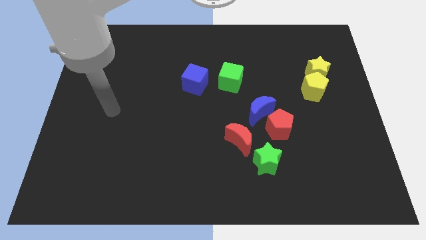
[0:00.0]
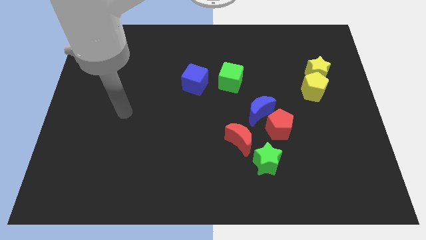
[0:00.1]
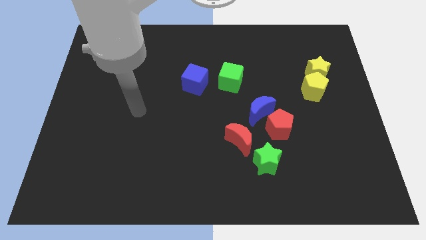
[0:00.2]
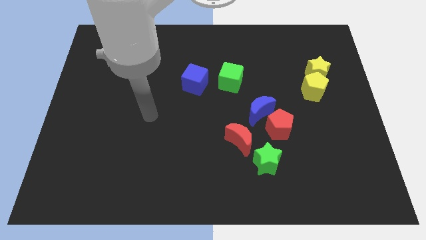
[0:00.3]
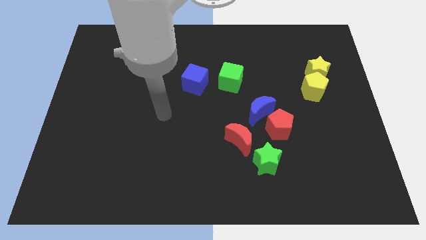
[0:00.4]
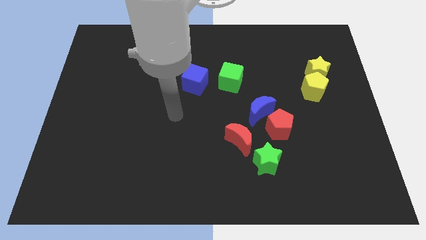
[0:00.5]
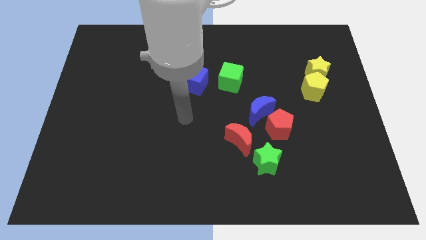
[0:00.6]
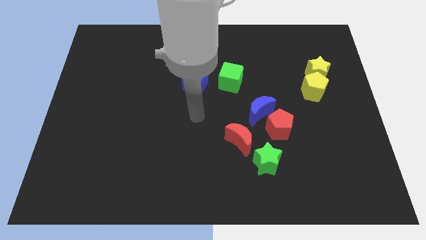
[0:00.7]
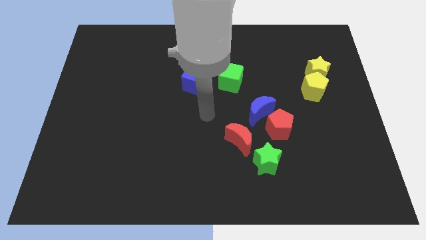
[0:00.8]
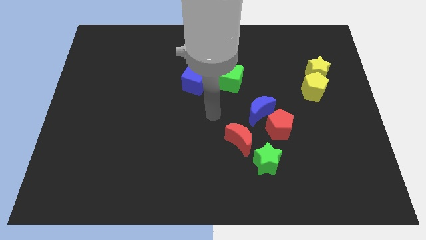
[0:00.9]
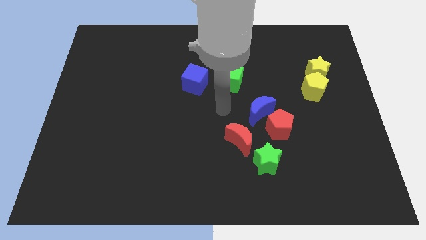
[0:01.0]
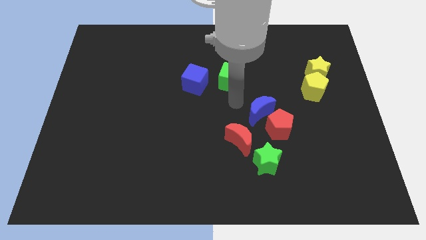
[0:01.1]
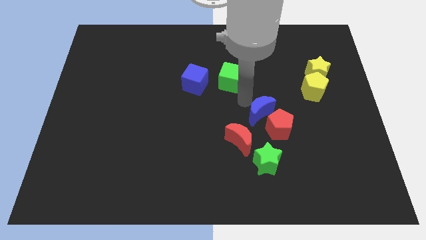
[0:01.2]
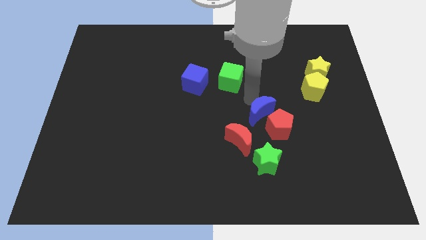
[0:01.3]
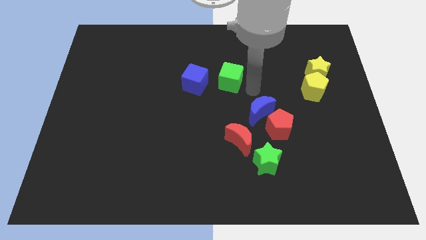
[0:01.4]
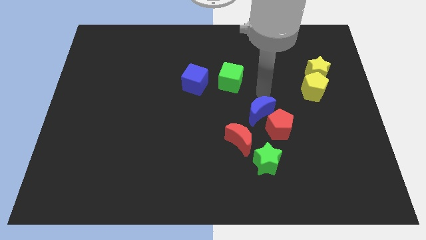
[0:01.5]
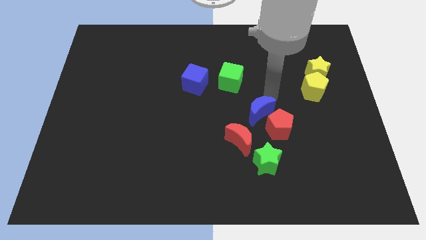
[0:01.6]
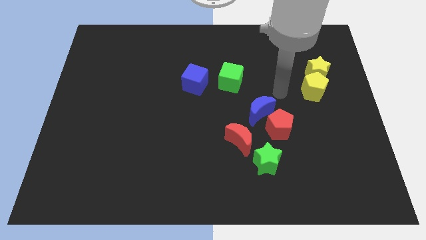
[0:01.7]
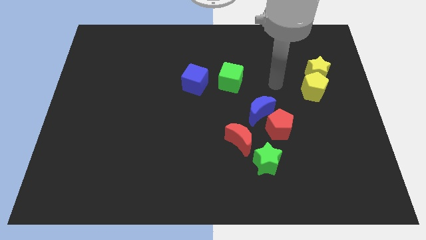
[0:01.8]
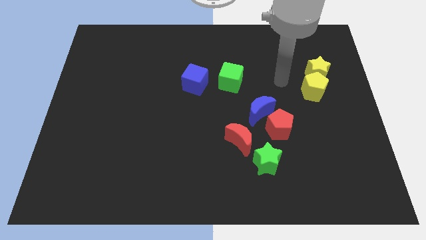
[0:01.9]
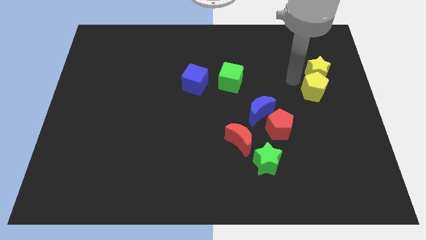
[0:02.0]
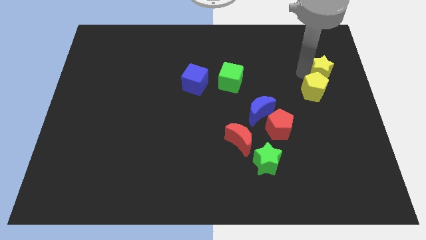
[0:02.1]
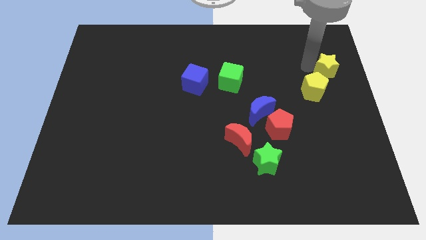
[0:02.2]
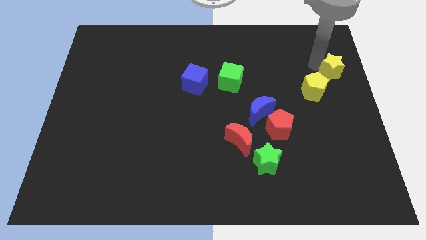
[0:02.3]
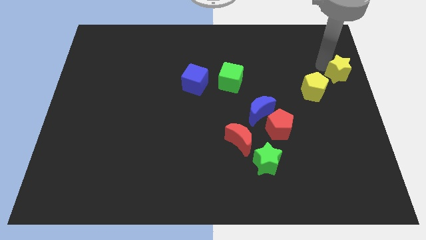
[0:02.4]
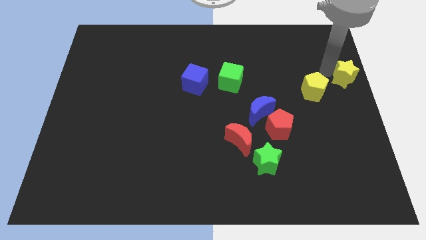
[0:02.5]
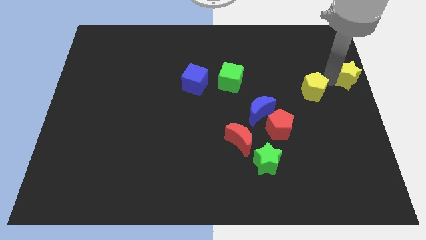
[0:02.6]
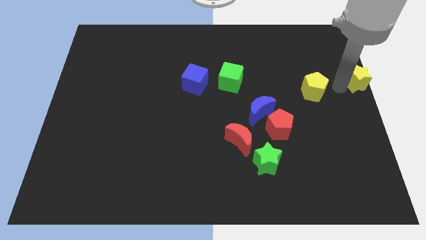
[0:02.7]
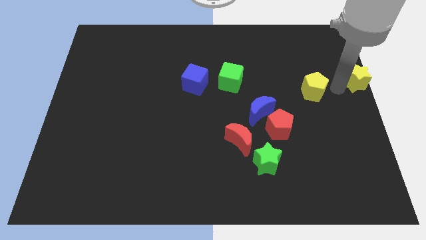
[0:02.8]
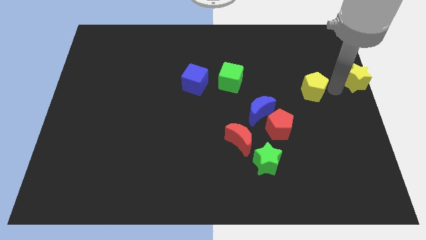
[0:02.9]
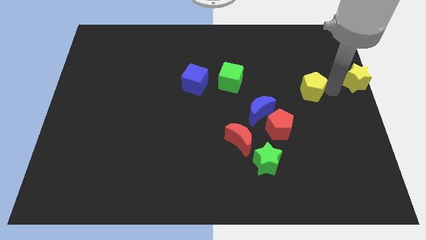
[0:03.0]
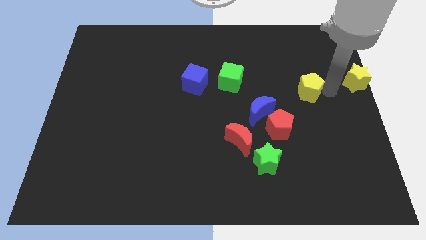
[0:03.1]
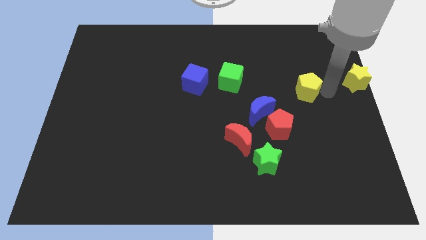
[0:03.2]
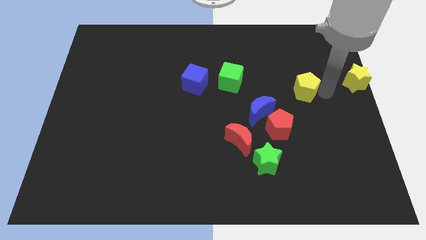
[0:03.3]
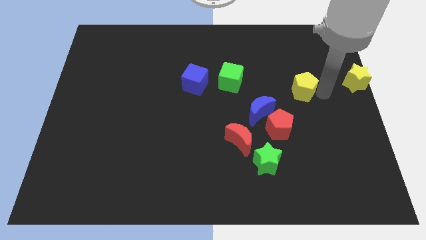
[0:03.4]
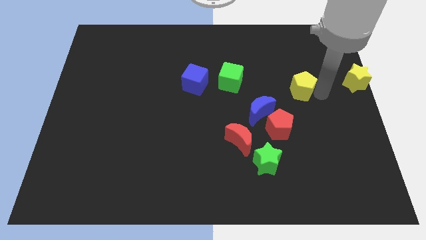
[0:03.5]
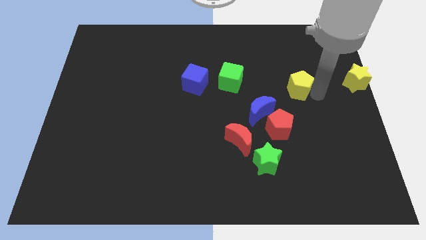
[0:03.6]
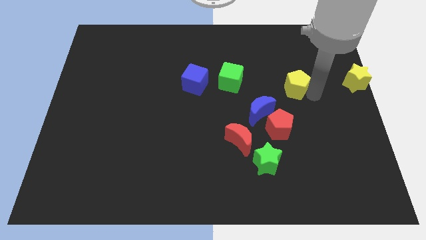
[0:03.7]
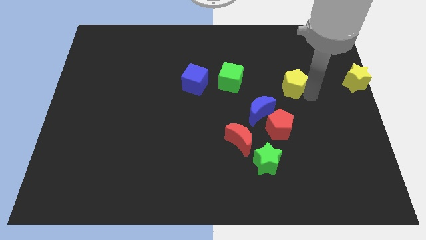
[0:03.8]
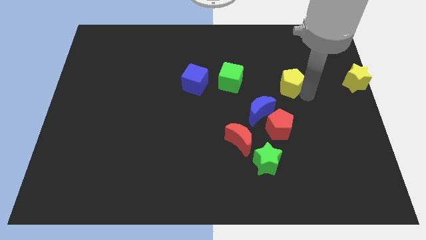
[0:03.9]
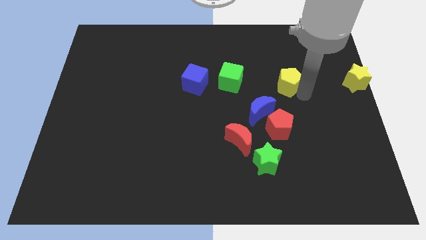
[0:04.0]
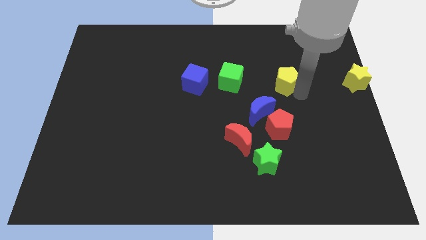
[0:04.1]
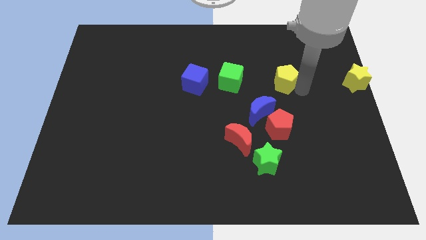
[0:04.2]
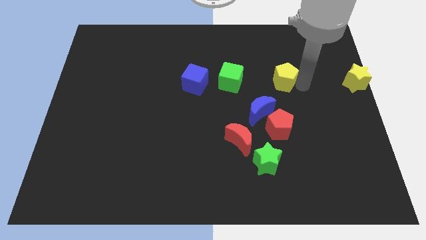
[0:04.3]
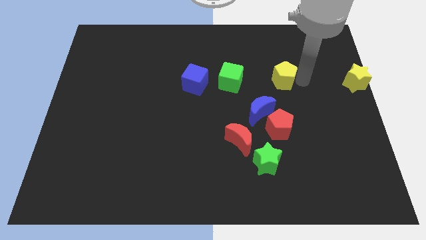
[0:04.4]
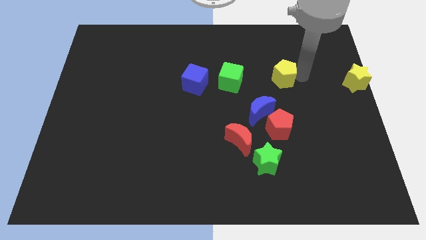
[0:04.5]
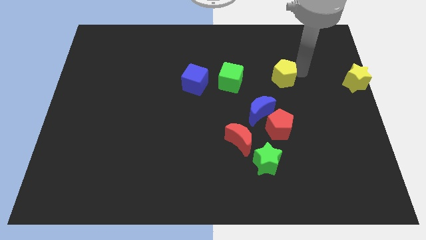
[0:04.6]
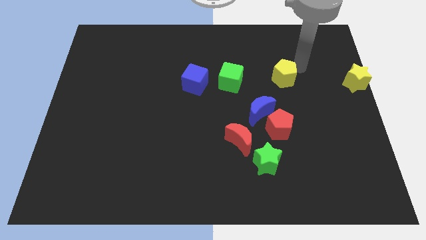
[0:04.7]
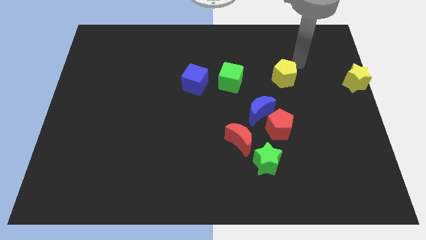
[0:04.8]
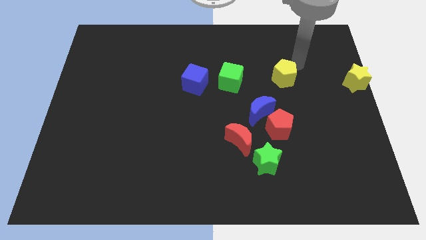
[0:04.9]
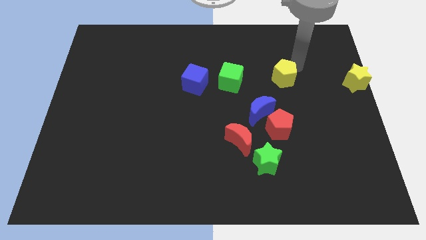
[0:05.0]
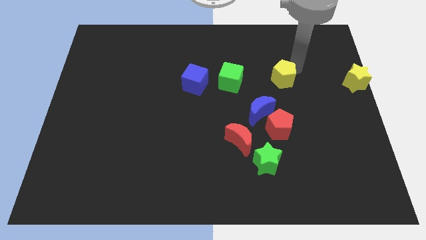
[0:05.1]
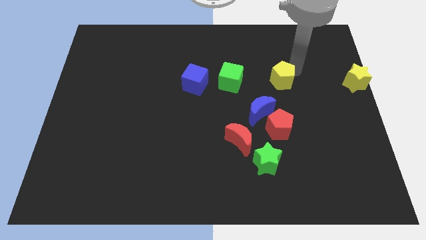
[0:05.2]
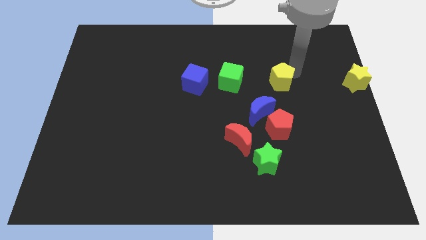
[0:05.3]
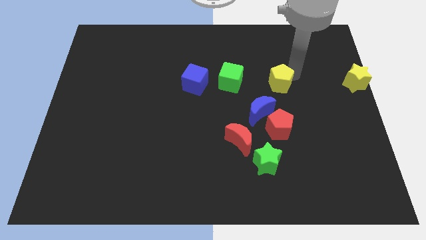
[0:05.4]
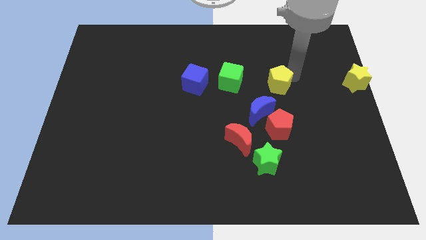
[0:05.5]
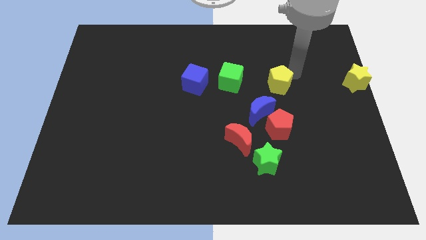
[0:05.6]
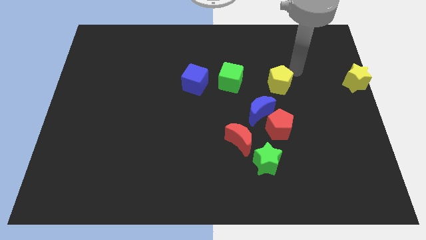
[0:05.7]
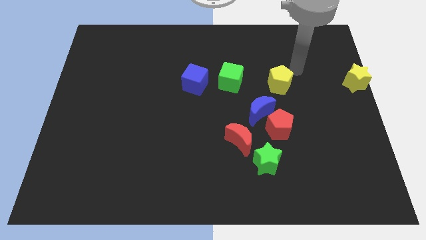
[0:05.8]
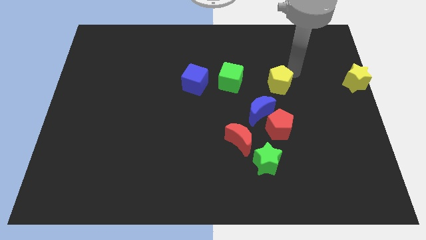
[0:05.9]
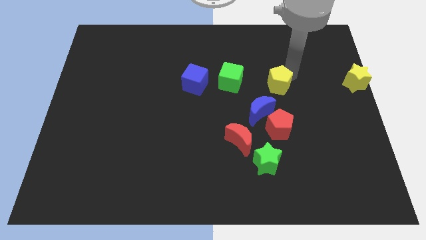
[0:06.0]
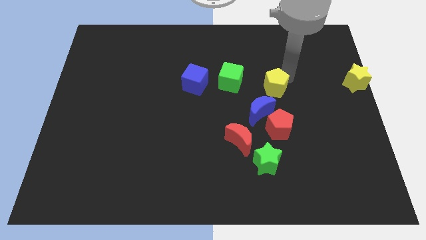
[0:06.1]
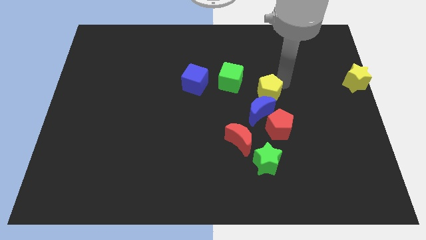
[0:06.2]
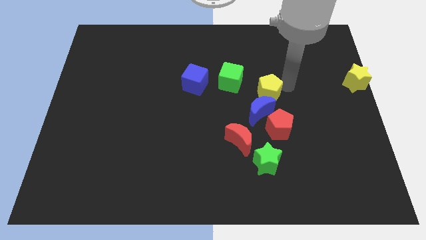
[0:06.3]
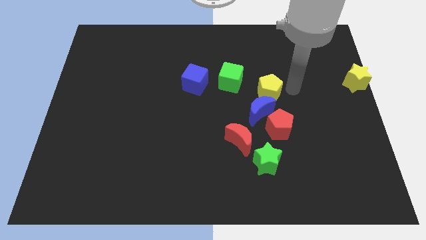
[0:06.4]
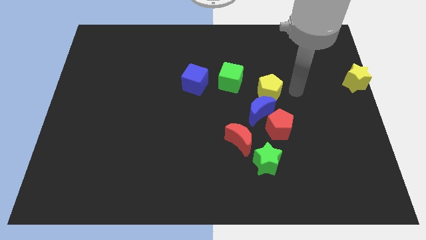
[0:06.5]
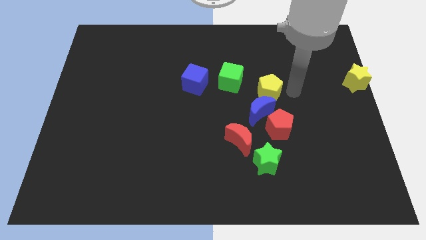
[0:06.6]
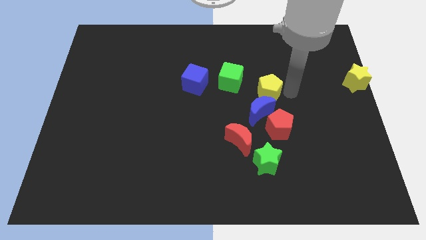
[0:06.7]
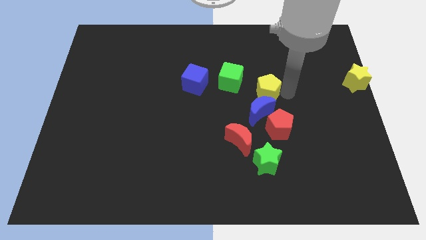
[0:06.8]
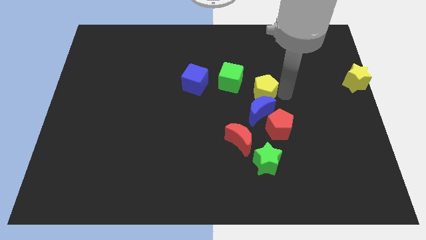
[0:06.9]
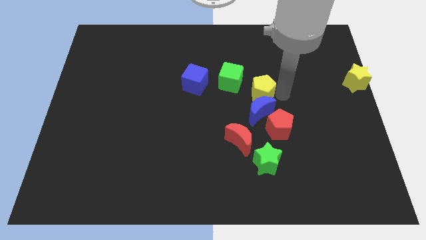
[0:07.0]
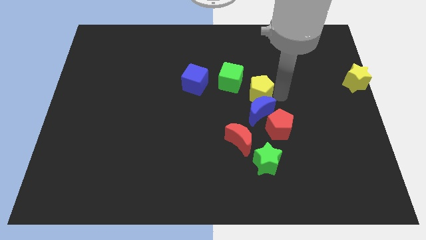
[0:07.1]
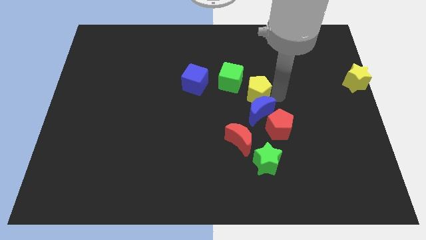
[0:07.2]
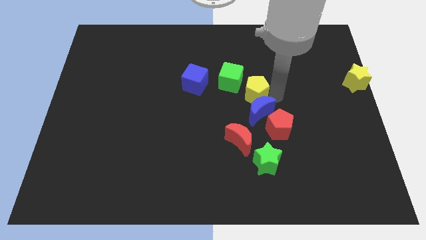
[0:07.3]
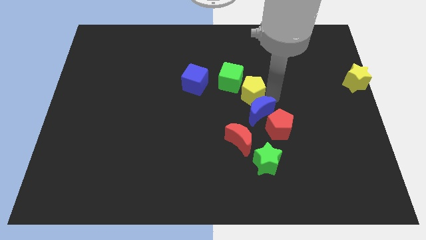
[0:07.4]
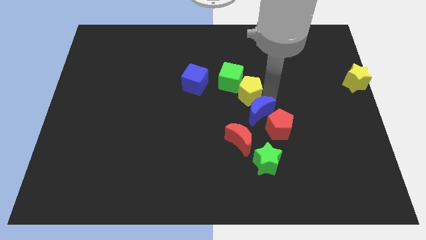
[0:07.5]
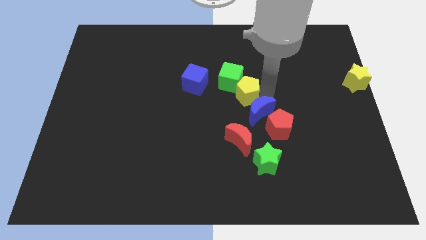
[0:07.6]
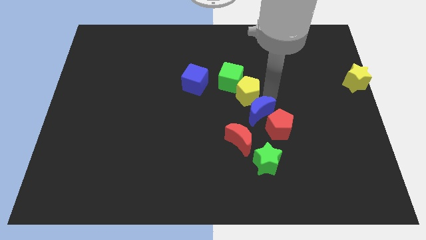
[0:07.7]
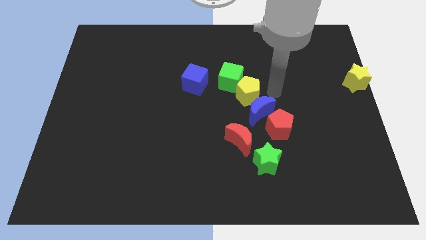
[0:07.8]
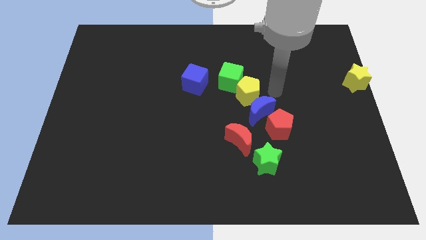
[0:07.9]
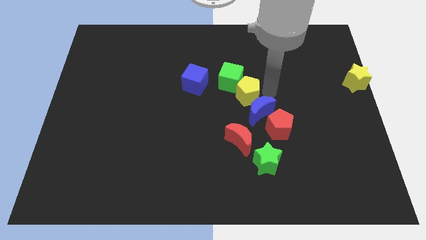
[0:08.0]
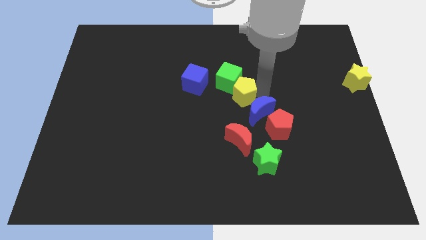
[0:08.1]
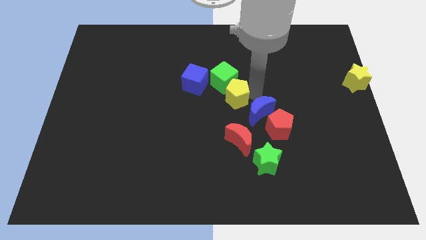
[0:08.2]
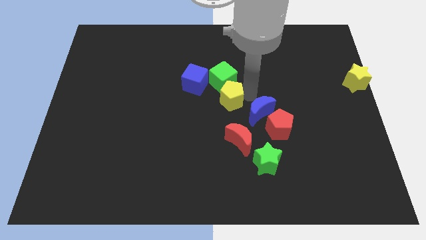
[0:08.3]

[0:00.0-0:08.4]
slide the yellow pentagon left
